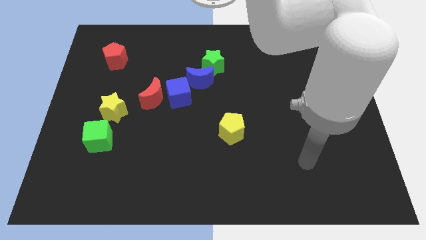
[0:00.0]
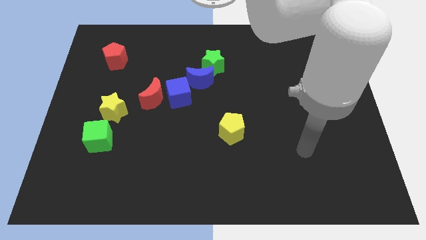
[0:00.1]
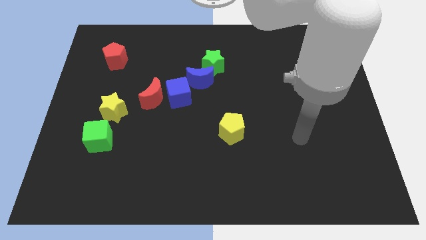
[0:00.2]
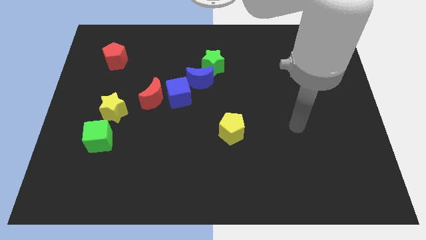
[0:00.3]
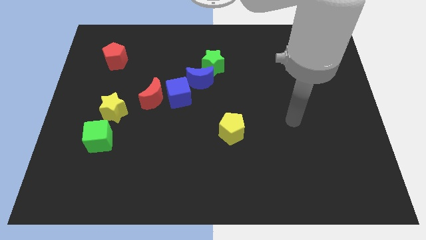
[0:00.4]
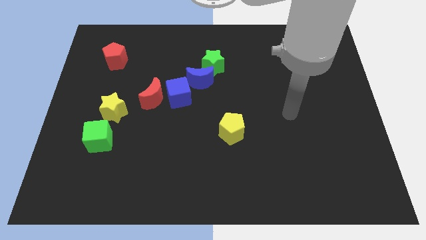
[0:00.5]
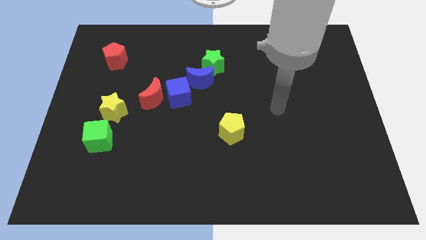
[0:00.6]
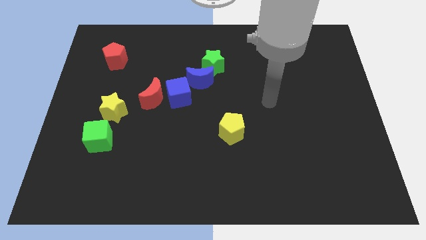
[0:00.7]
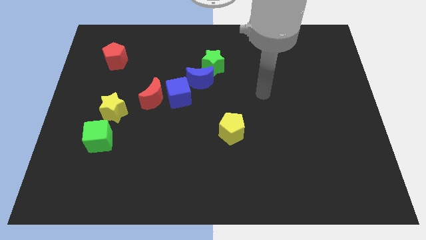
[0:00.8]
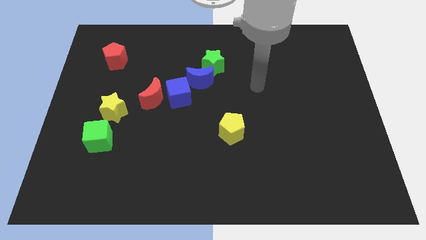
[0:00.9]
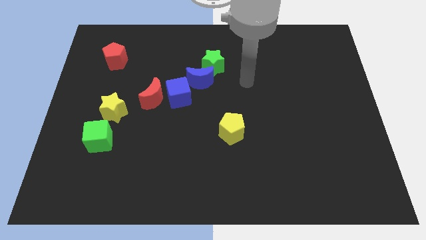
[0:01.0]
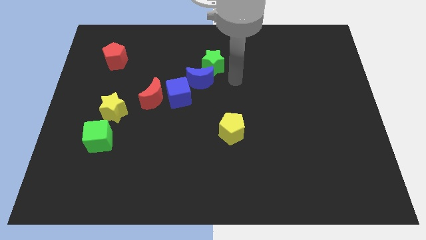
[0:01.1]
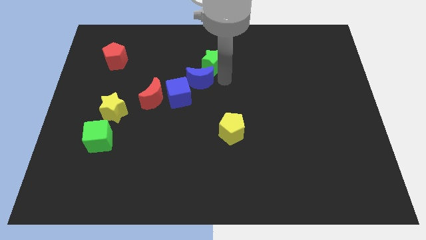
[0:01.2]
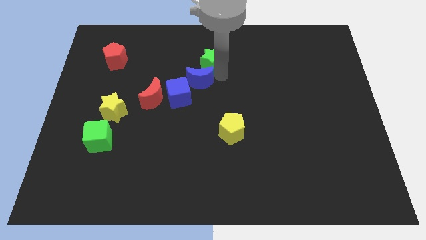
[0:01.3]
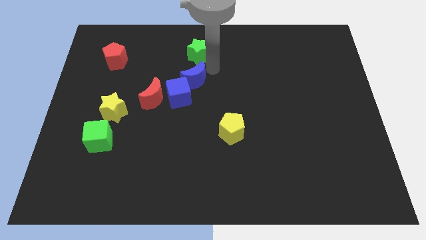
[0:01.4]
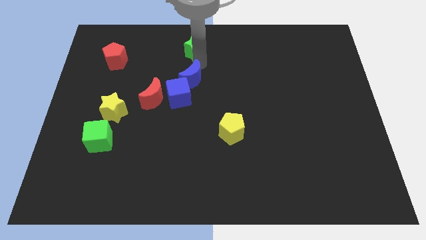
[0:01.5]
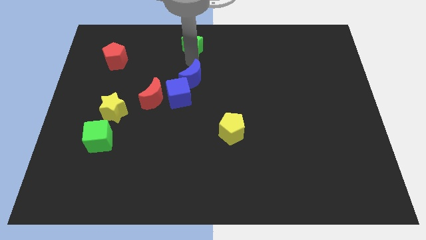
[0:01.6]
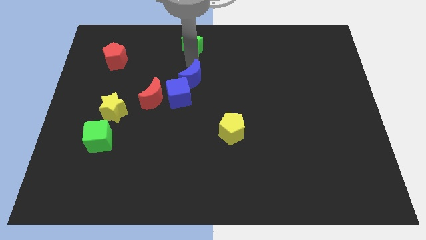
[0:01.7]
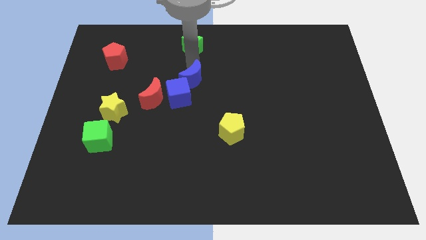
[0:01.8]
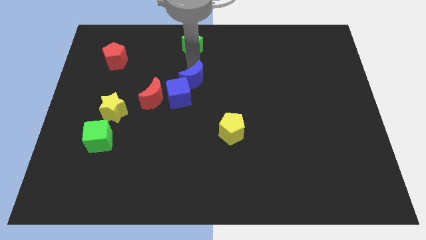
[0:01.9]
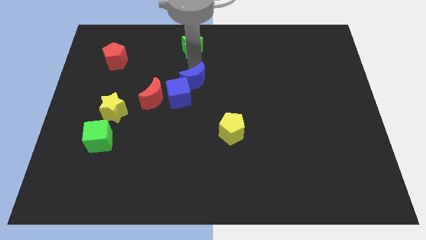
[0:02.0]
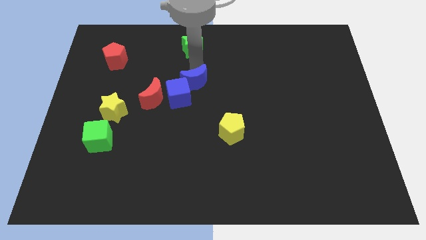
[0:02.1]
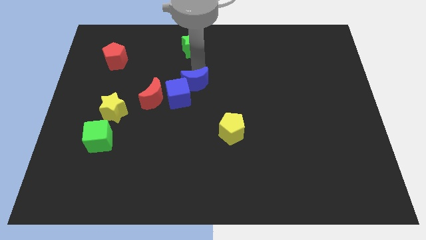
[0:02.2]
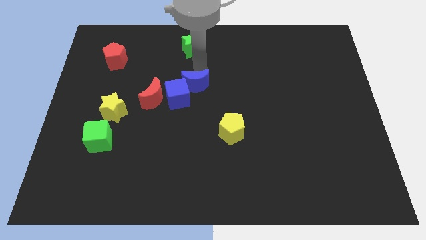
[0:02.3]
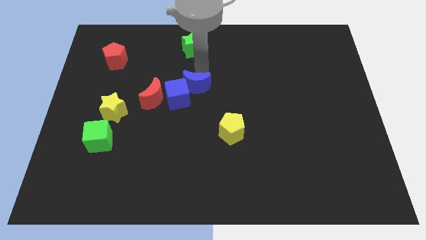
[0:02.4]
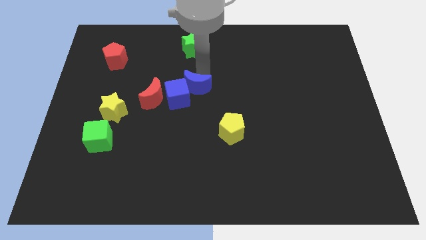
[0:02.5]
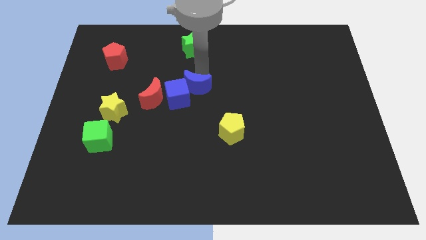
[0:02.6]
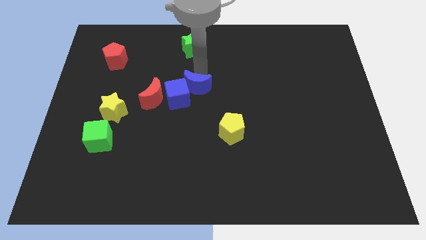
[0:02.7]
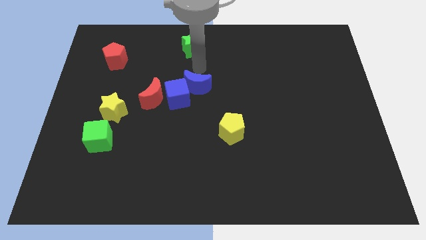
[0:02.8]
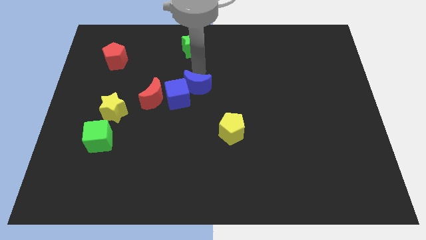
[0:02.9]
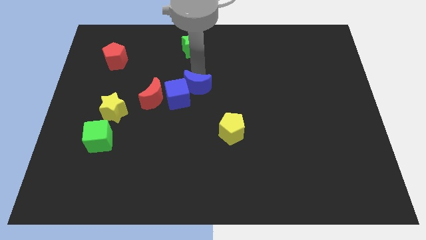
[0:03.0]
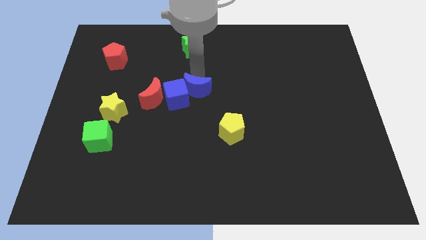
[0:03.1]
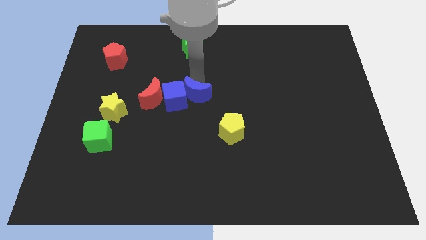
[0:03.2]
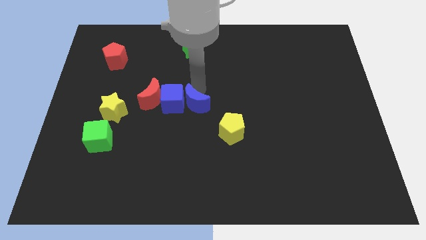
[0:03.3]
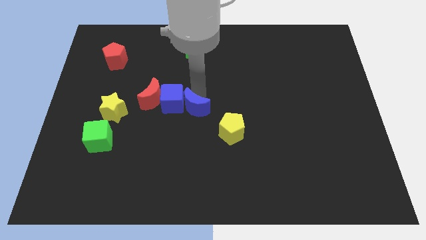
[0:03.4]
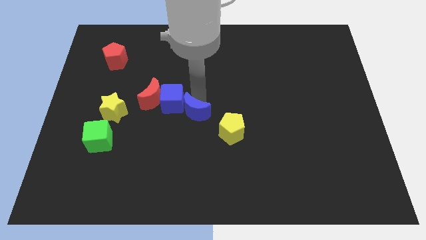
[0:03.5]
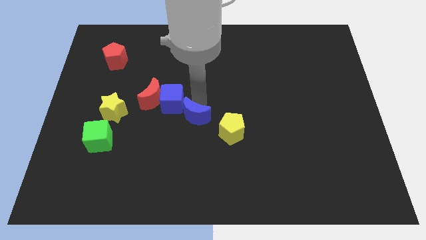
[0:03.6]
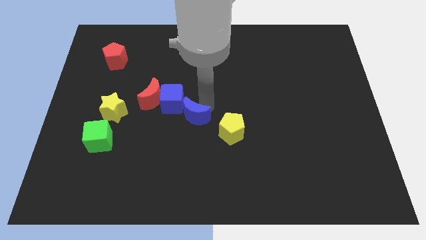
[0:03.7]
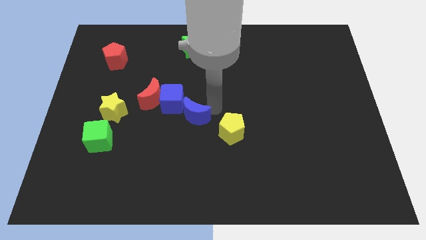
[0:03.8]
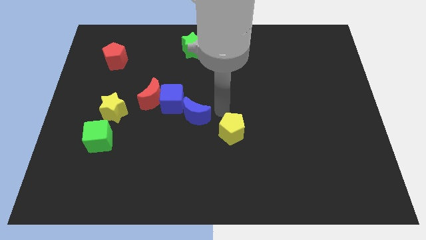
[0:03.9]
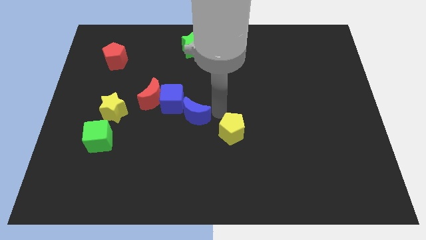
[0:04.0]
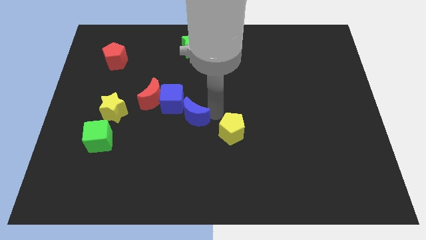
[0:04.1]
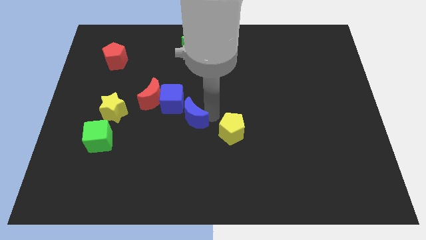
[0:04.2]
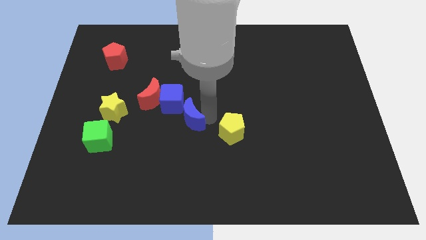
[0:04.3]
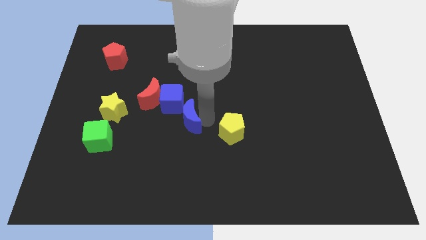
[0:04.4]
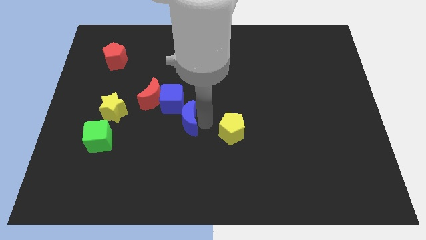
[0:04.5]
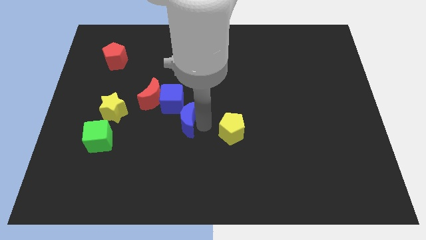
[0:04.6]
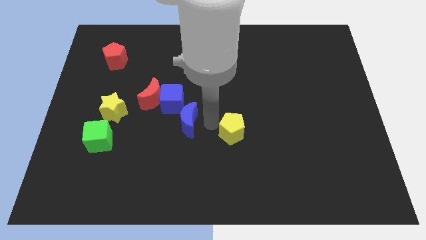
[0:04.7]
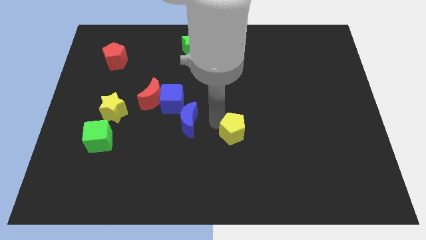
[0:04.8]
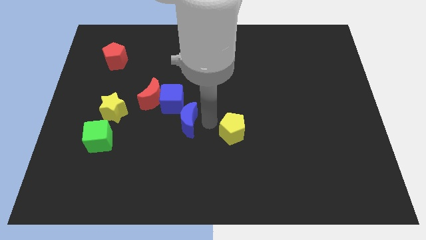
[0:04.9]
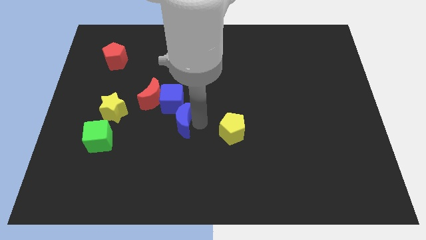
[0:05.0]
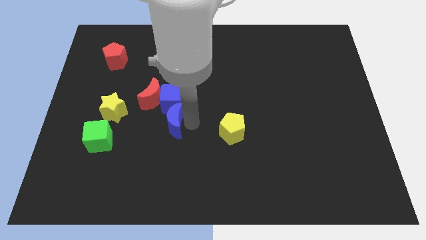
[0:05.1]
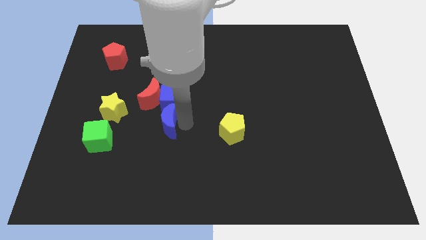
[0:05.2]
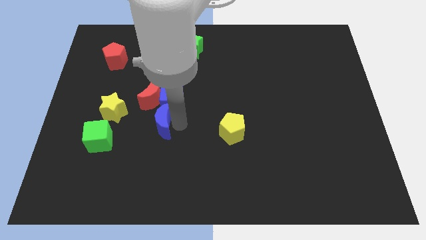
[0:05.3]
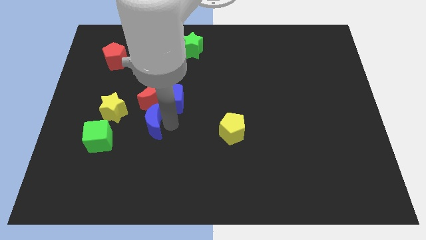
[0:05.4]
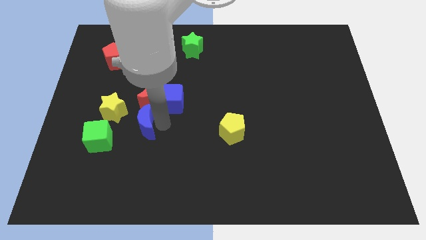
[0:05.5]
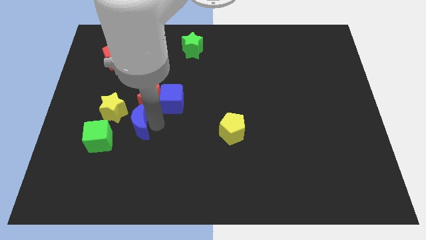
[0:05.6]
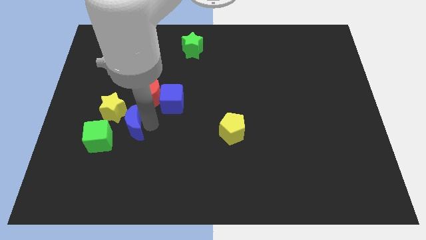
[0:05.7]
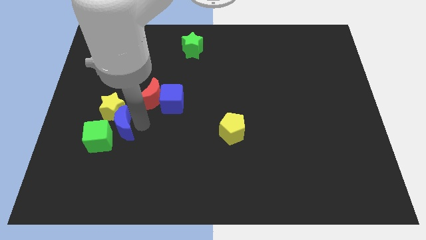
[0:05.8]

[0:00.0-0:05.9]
put the blue moon towards the green cube

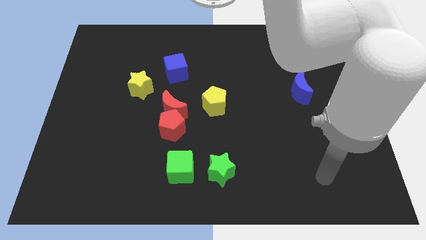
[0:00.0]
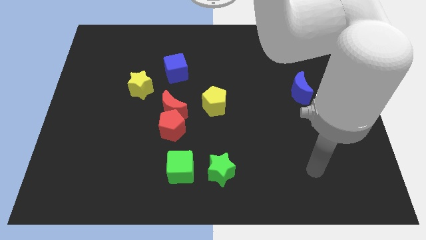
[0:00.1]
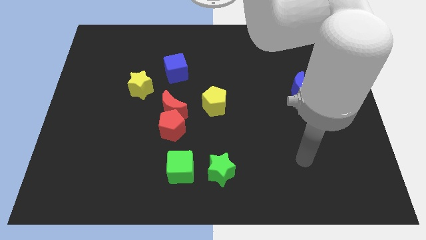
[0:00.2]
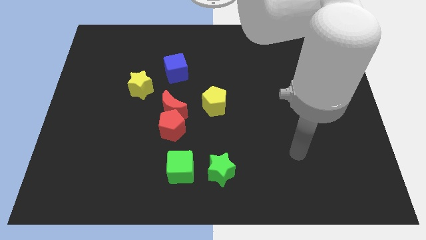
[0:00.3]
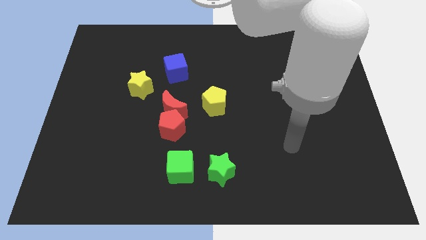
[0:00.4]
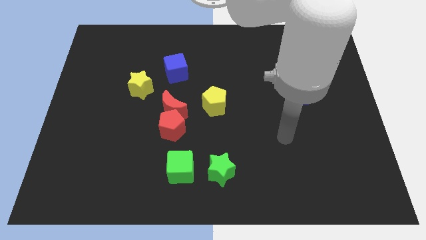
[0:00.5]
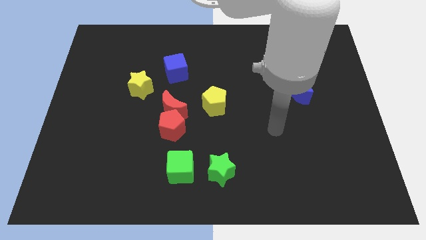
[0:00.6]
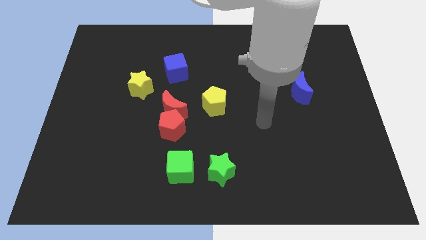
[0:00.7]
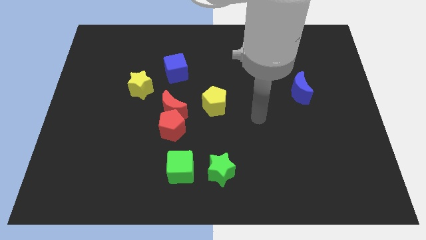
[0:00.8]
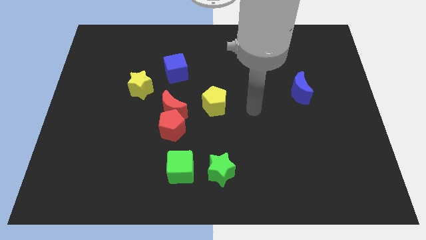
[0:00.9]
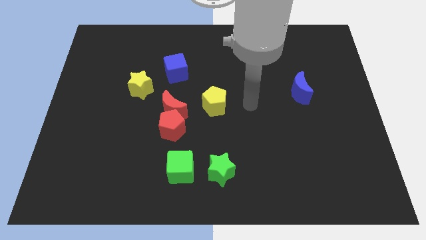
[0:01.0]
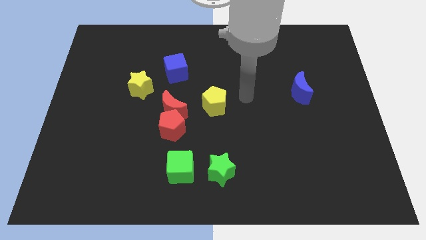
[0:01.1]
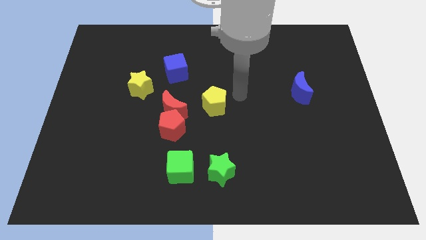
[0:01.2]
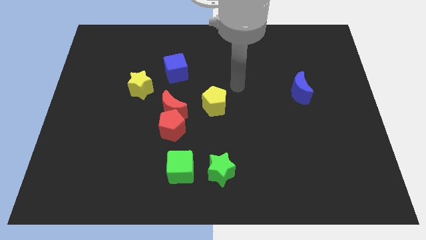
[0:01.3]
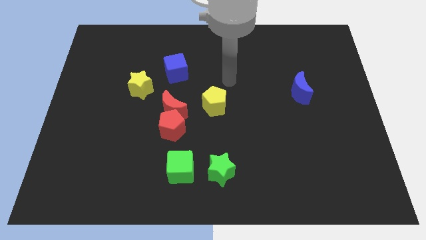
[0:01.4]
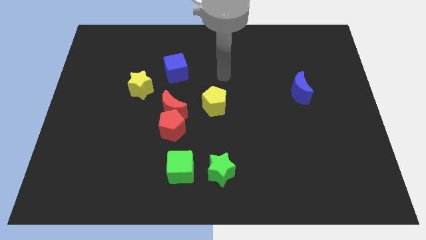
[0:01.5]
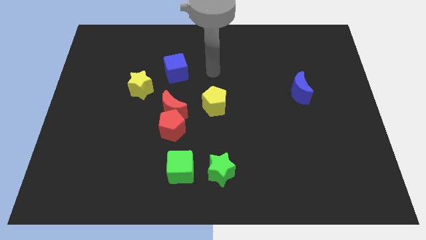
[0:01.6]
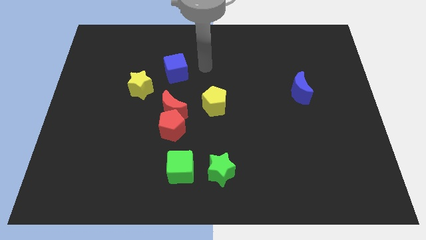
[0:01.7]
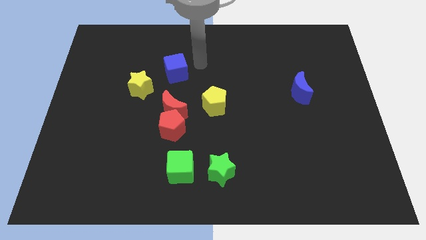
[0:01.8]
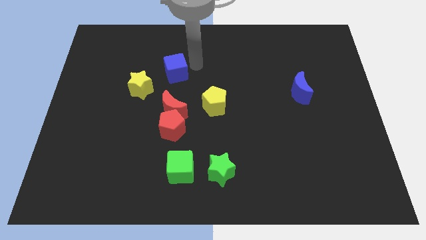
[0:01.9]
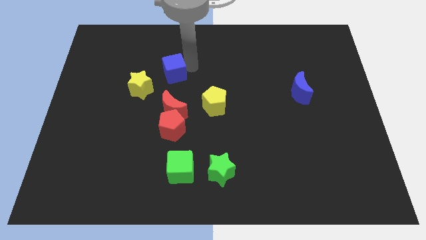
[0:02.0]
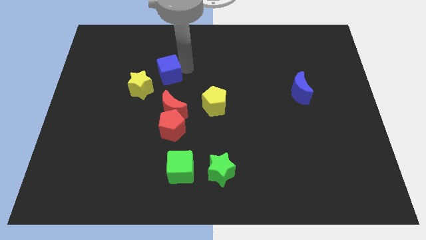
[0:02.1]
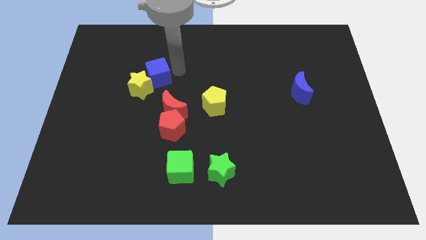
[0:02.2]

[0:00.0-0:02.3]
move the blue cube next to the yellow star
